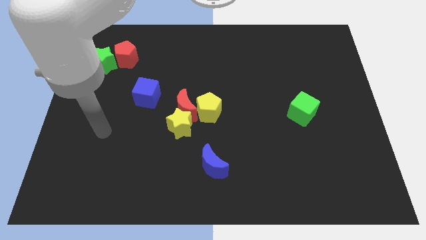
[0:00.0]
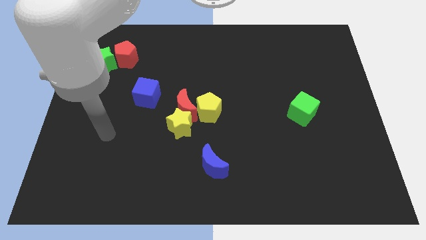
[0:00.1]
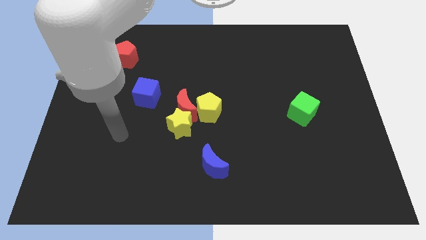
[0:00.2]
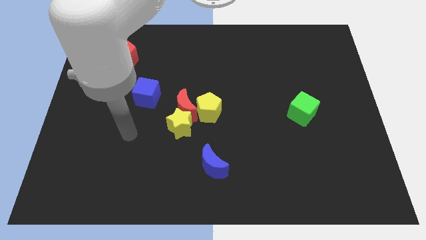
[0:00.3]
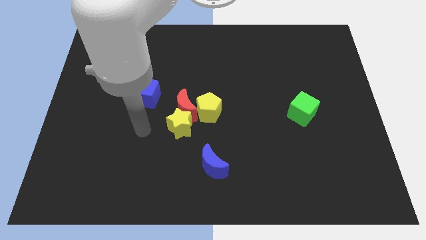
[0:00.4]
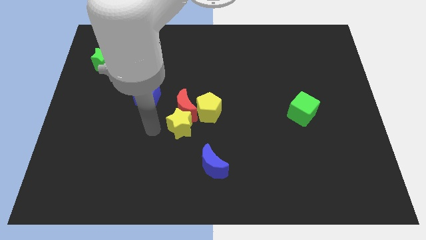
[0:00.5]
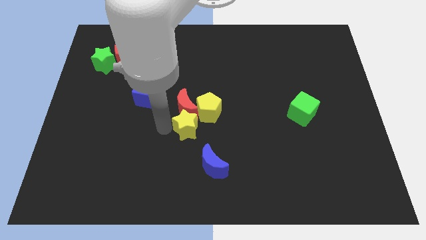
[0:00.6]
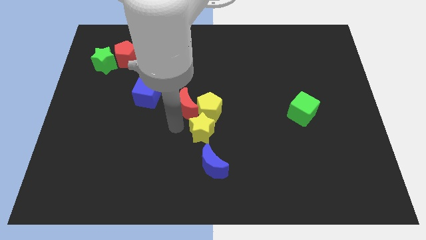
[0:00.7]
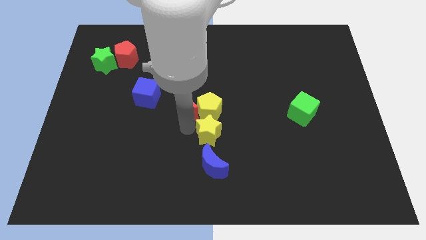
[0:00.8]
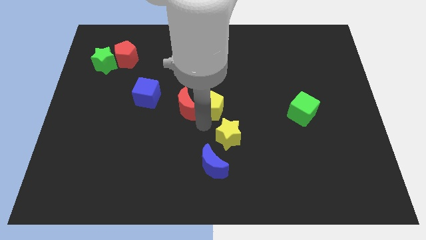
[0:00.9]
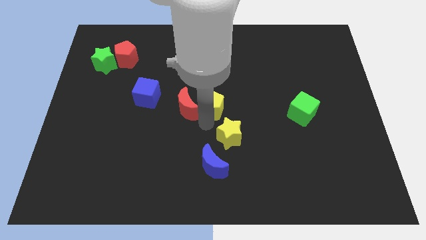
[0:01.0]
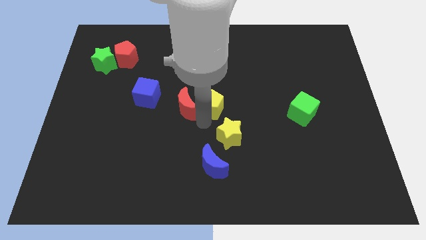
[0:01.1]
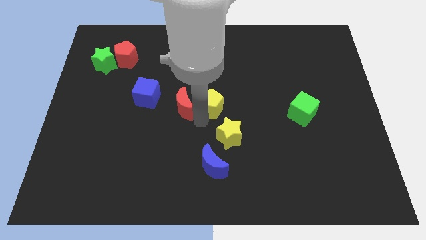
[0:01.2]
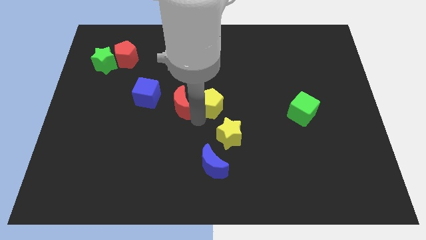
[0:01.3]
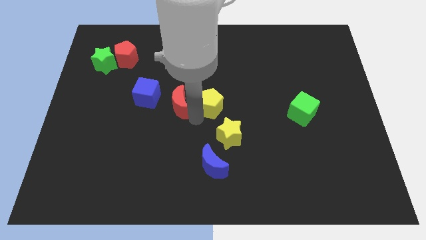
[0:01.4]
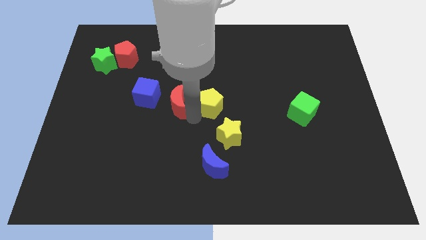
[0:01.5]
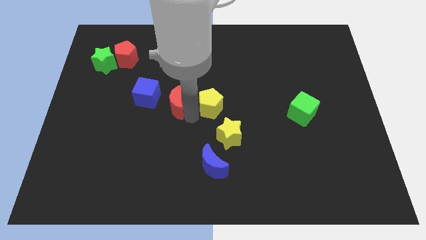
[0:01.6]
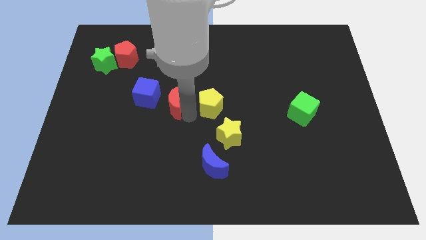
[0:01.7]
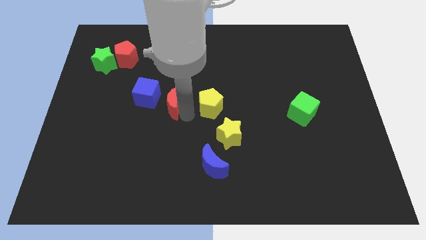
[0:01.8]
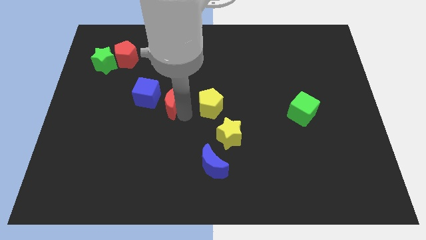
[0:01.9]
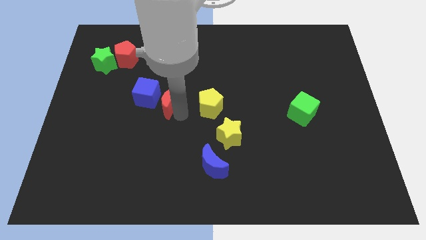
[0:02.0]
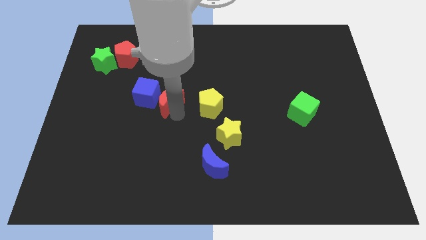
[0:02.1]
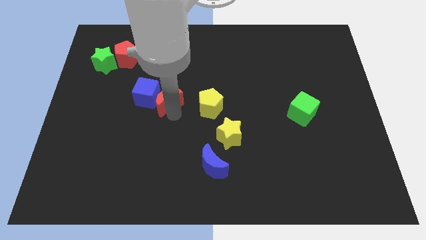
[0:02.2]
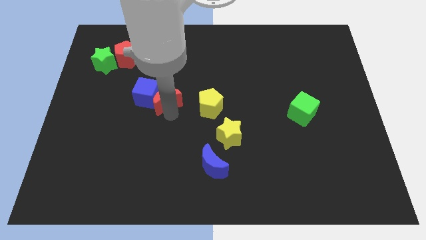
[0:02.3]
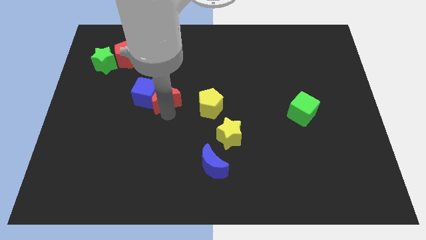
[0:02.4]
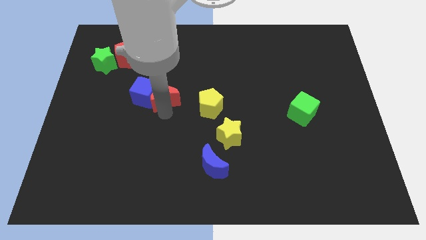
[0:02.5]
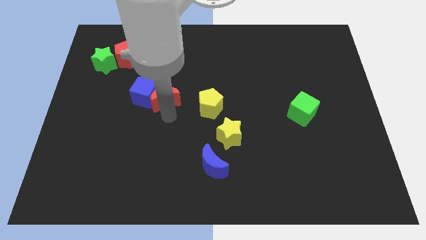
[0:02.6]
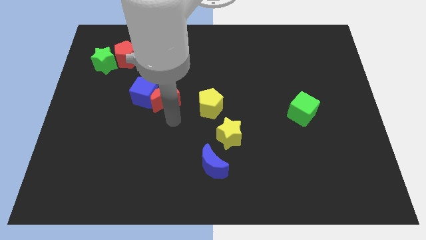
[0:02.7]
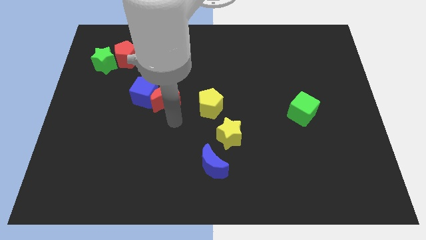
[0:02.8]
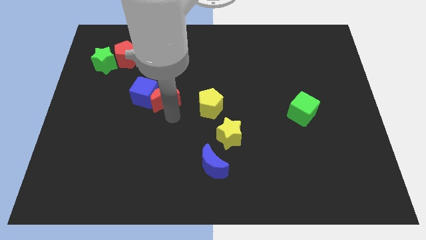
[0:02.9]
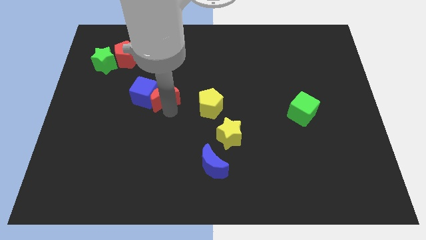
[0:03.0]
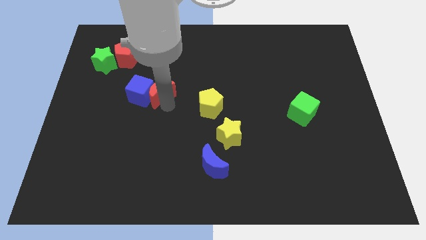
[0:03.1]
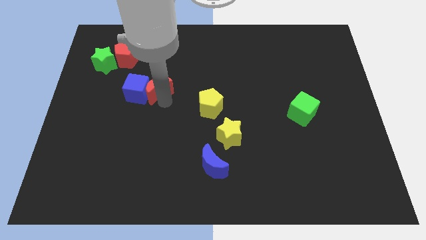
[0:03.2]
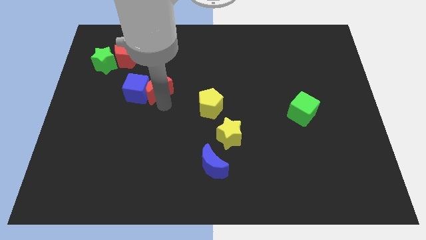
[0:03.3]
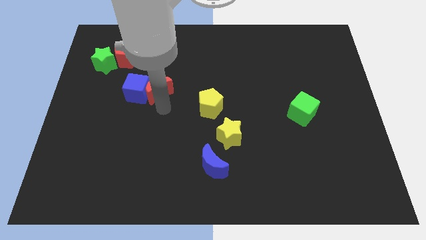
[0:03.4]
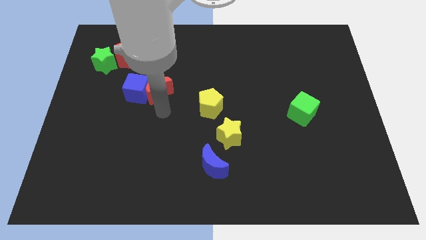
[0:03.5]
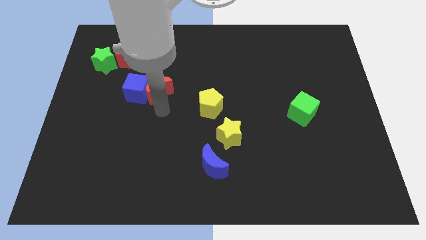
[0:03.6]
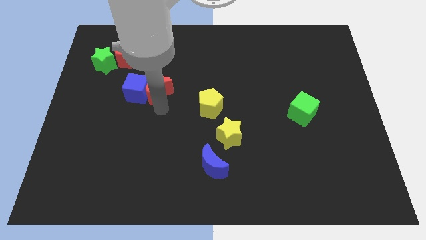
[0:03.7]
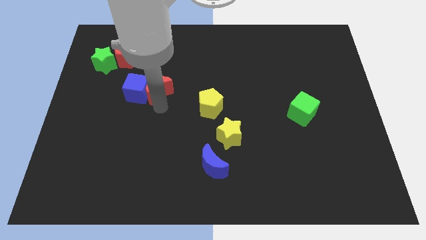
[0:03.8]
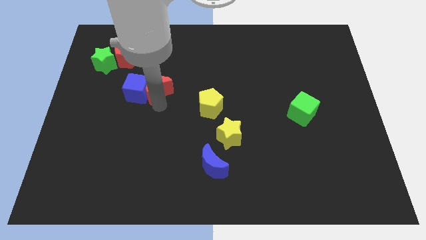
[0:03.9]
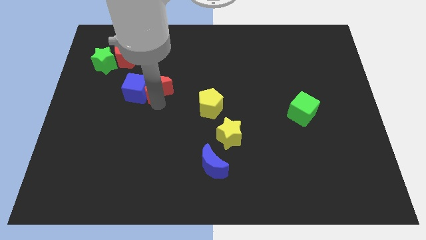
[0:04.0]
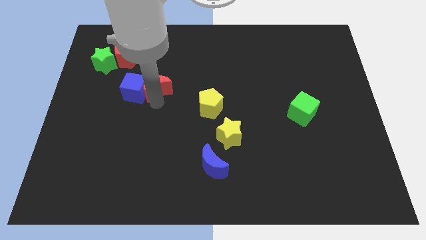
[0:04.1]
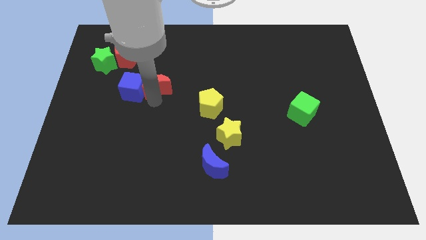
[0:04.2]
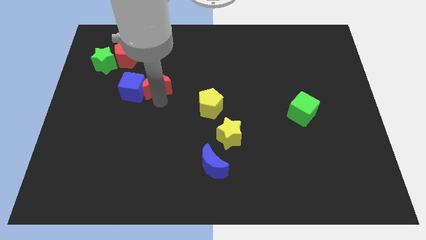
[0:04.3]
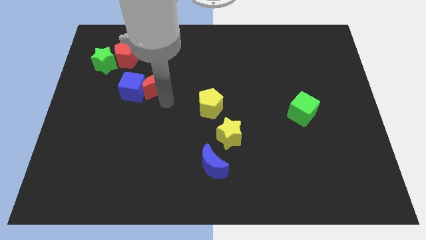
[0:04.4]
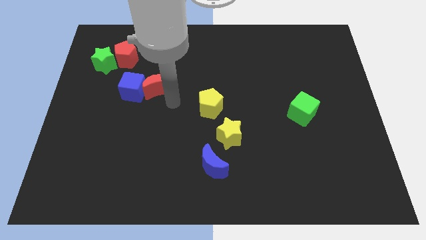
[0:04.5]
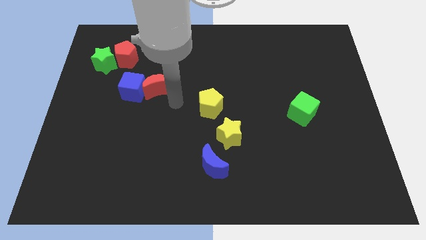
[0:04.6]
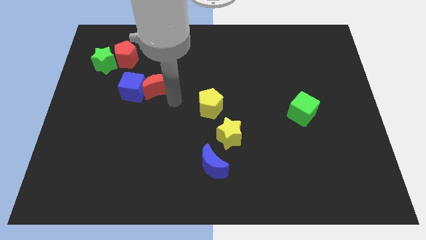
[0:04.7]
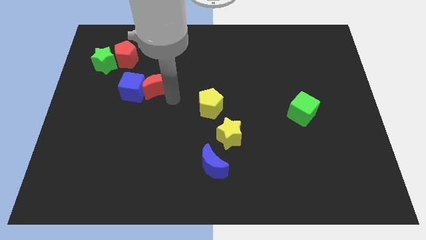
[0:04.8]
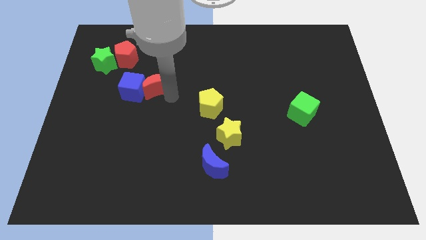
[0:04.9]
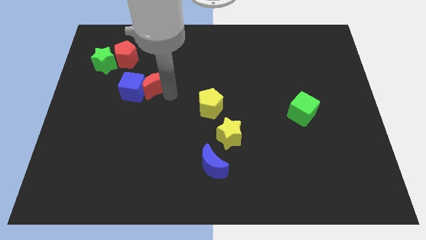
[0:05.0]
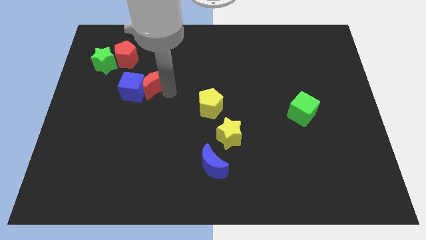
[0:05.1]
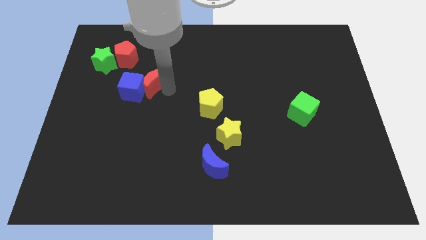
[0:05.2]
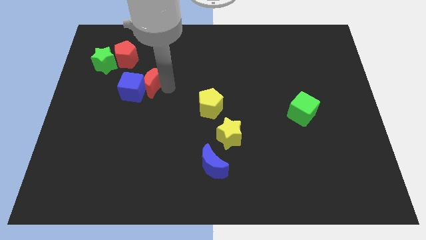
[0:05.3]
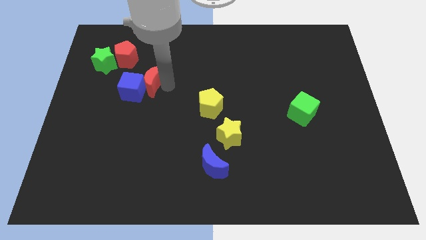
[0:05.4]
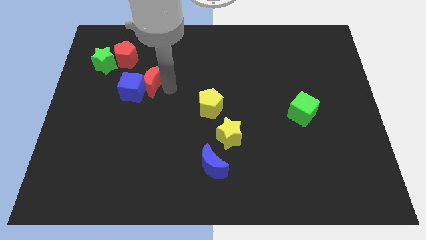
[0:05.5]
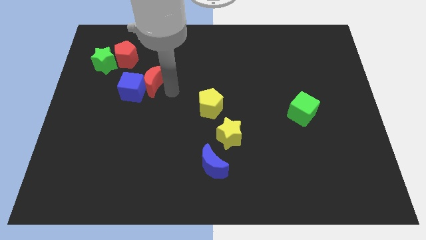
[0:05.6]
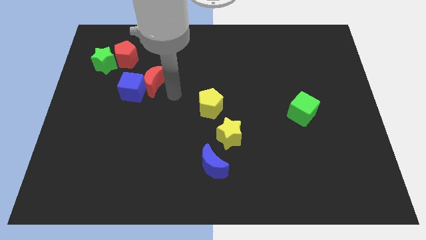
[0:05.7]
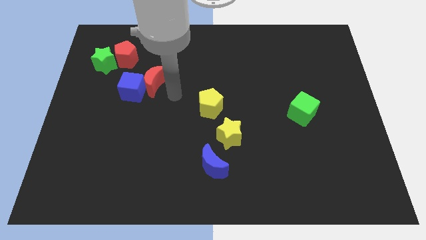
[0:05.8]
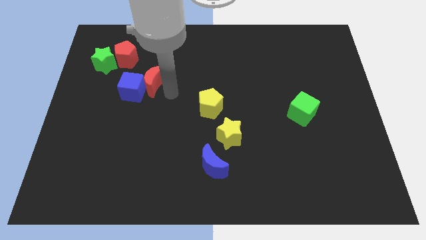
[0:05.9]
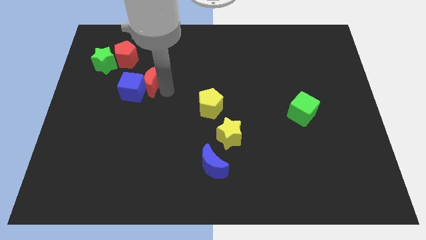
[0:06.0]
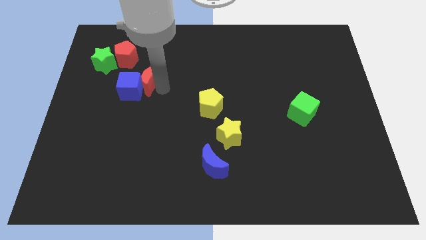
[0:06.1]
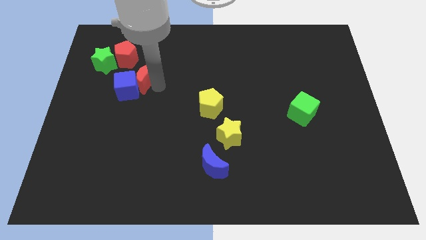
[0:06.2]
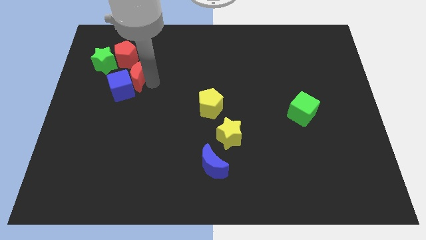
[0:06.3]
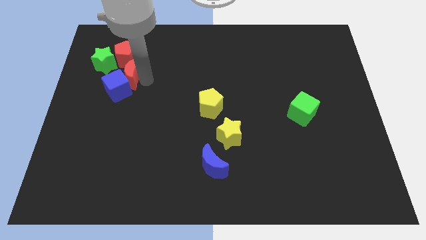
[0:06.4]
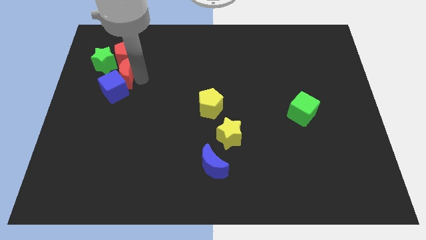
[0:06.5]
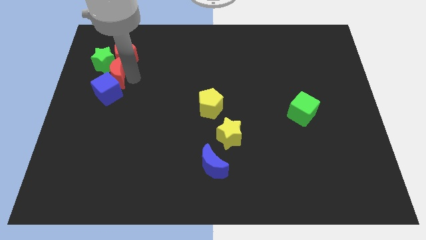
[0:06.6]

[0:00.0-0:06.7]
slide the red moon towards the green star

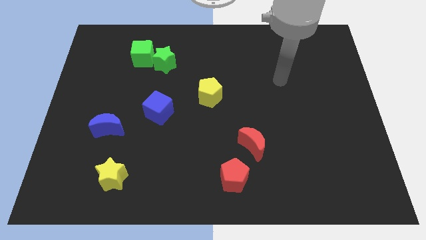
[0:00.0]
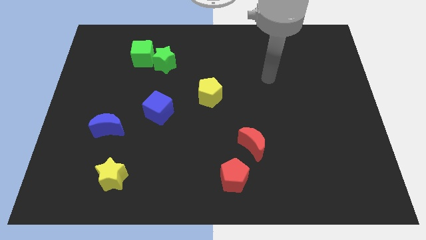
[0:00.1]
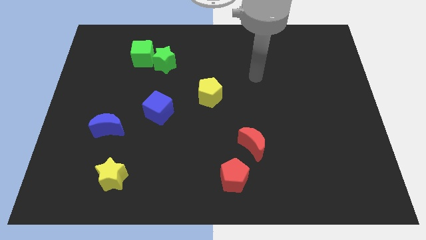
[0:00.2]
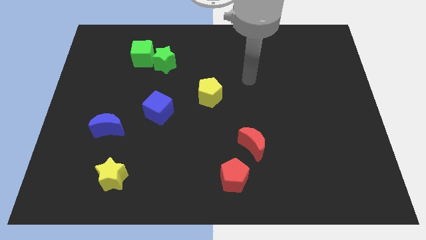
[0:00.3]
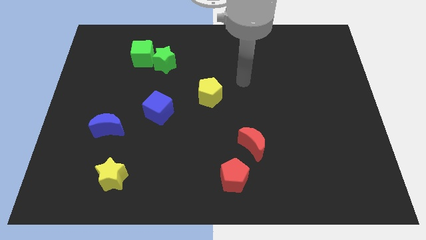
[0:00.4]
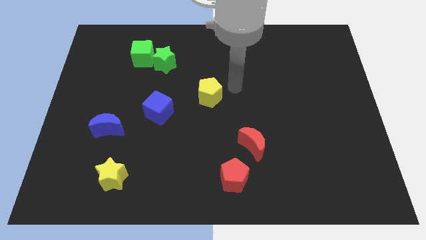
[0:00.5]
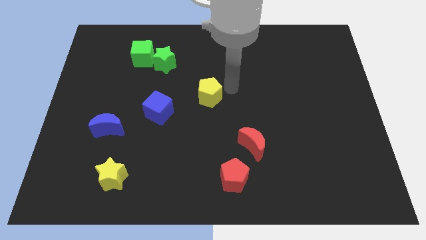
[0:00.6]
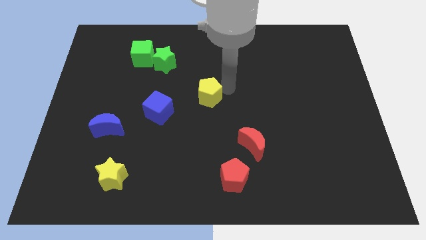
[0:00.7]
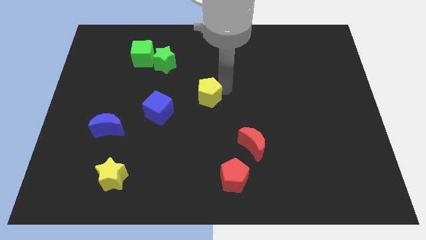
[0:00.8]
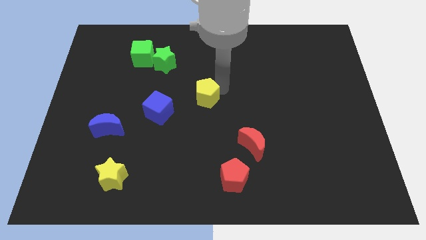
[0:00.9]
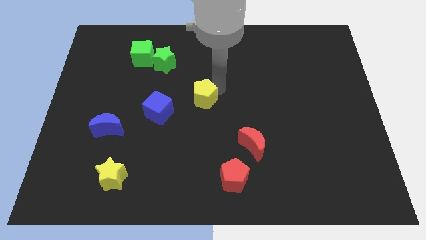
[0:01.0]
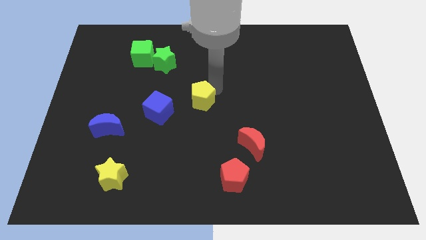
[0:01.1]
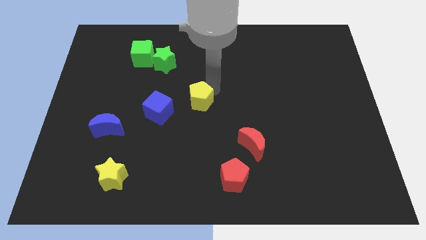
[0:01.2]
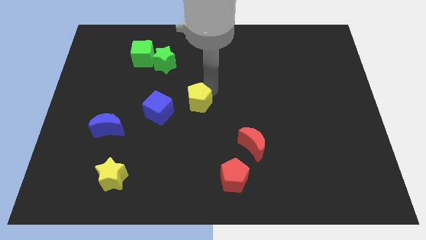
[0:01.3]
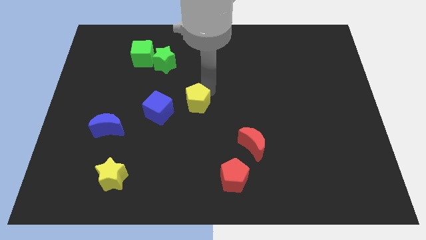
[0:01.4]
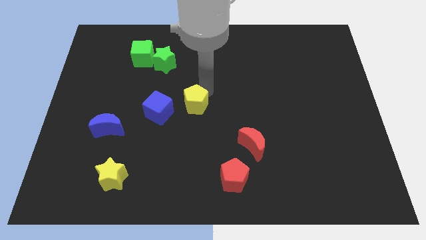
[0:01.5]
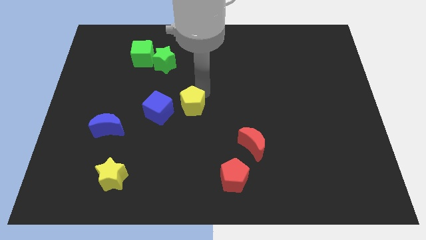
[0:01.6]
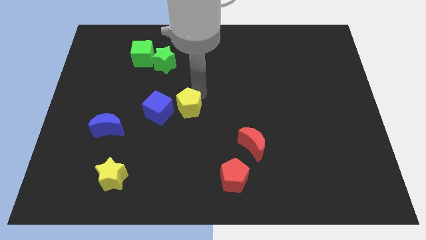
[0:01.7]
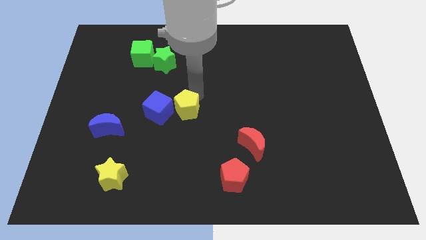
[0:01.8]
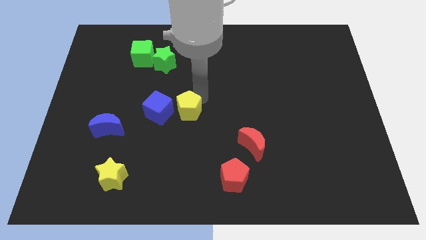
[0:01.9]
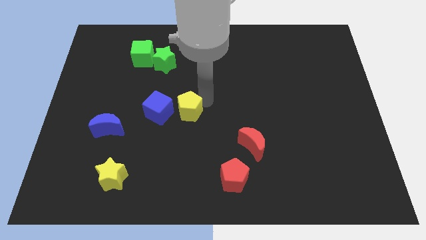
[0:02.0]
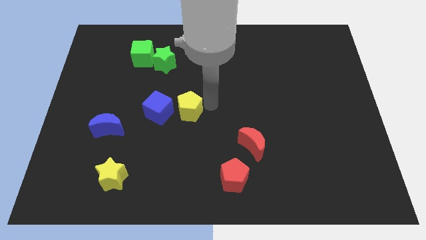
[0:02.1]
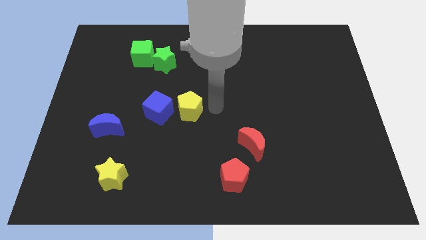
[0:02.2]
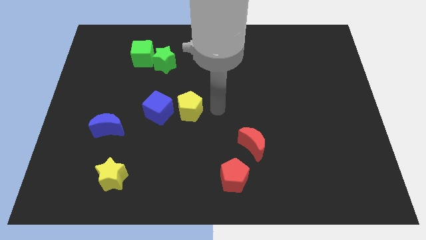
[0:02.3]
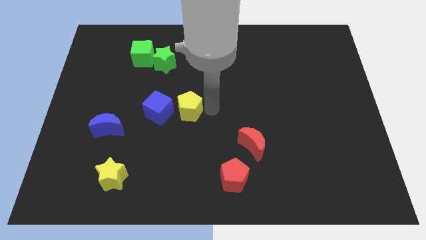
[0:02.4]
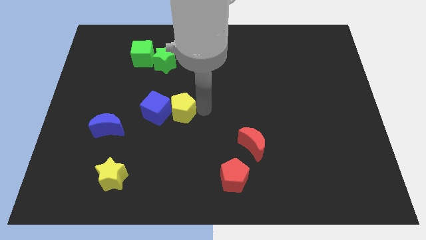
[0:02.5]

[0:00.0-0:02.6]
push the yellow pentagon towards the blue cube
